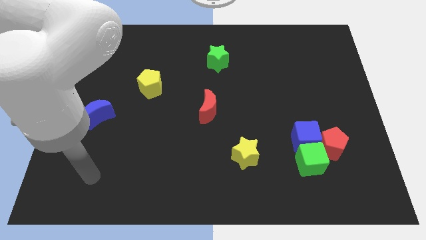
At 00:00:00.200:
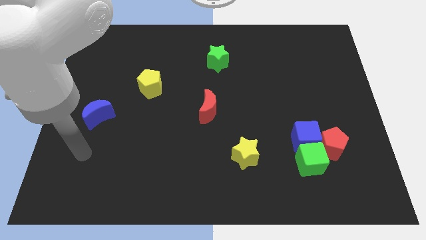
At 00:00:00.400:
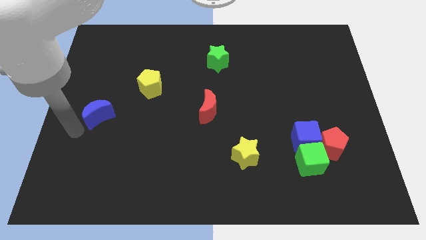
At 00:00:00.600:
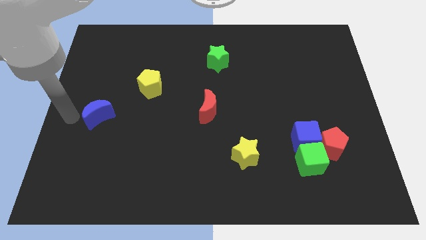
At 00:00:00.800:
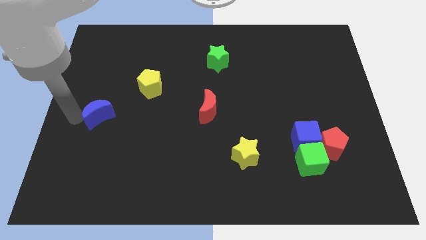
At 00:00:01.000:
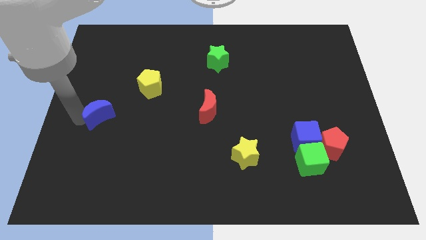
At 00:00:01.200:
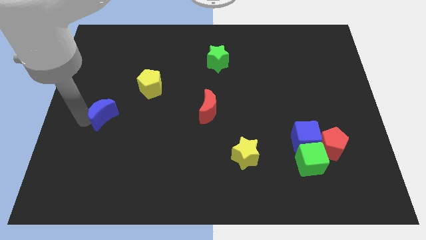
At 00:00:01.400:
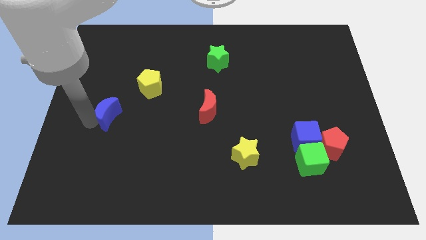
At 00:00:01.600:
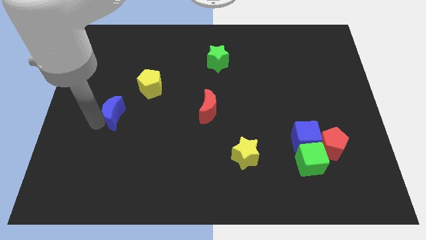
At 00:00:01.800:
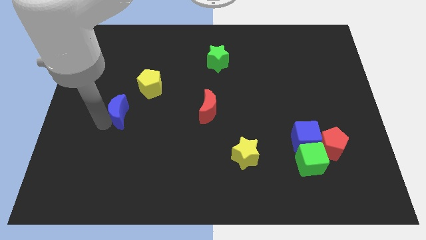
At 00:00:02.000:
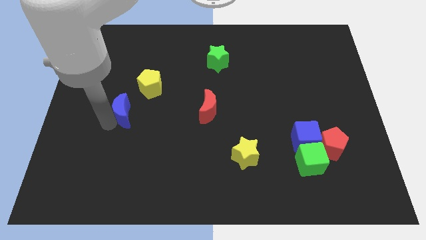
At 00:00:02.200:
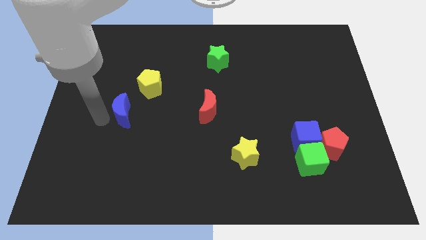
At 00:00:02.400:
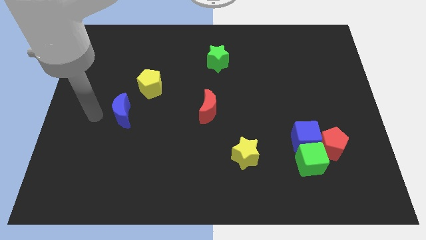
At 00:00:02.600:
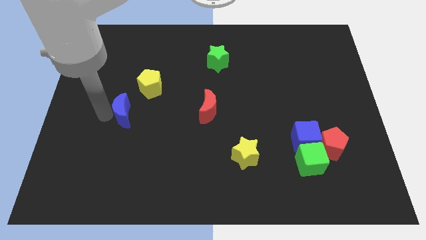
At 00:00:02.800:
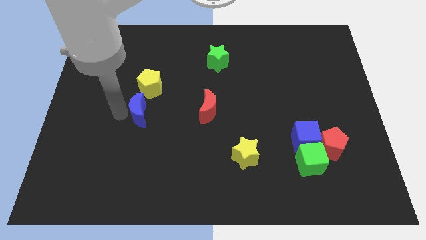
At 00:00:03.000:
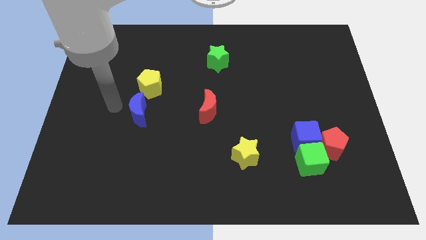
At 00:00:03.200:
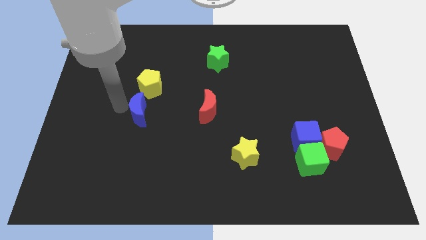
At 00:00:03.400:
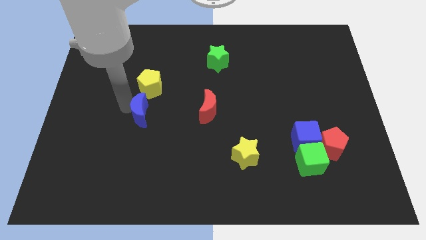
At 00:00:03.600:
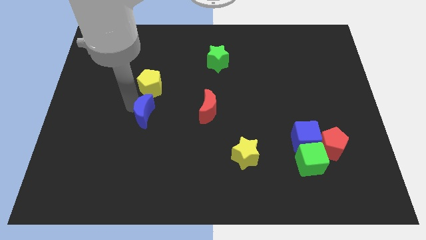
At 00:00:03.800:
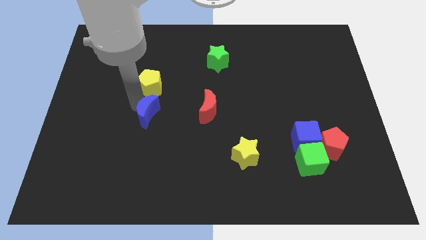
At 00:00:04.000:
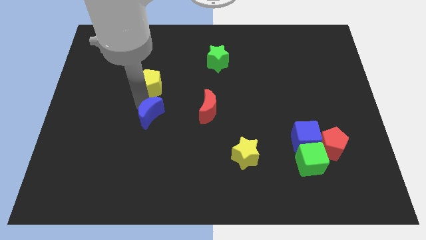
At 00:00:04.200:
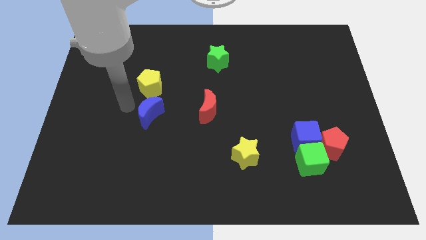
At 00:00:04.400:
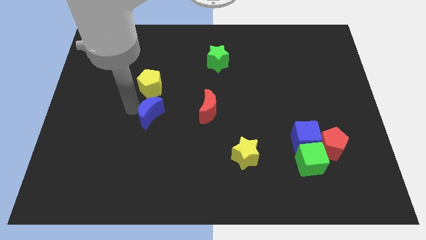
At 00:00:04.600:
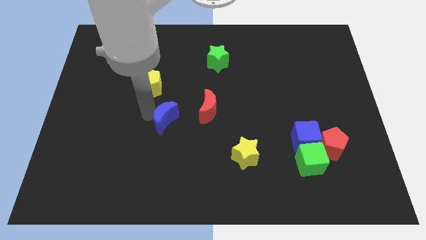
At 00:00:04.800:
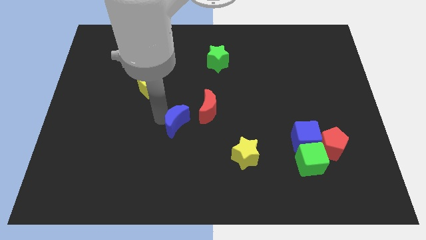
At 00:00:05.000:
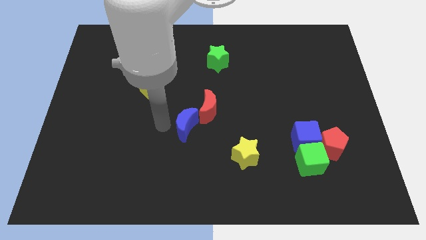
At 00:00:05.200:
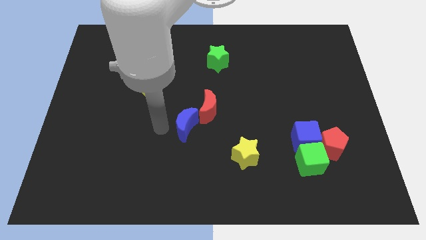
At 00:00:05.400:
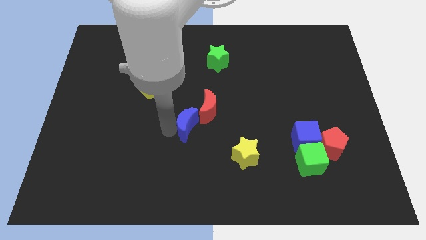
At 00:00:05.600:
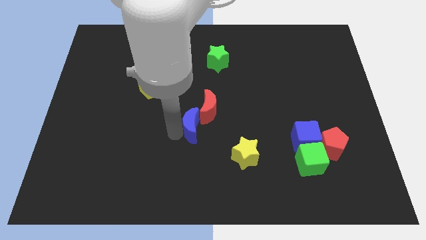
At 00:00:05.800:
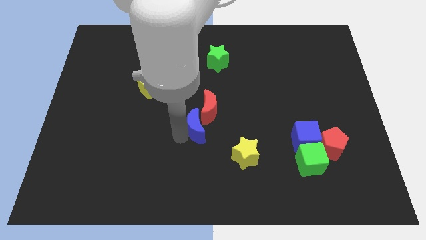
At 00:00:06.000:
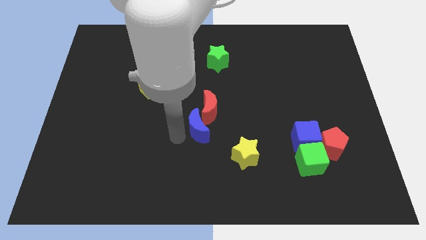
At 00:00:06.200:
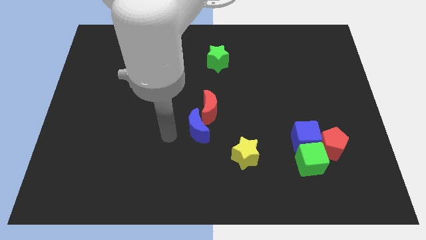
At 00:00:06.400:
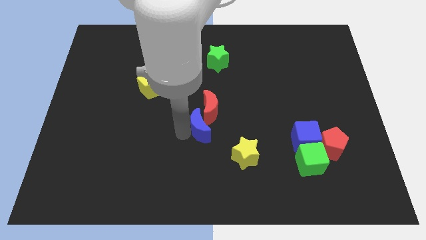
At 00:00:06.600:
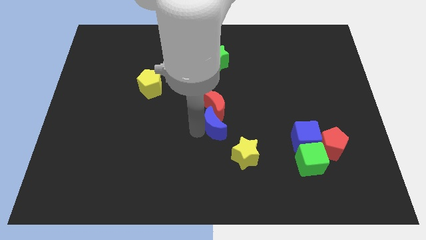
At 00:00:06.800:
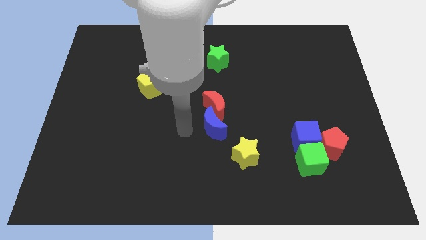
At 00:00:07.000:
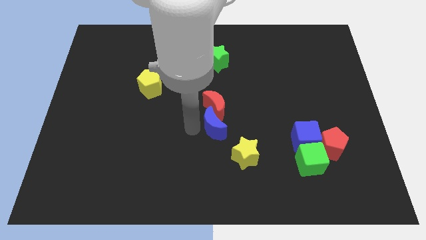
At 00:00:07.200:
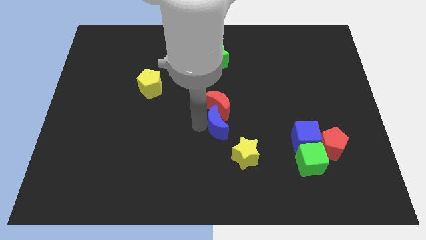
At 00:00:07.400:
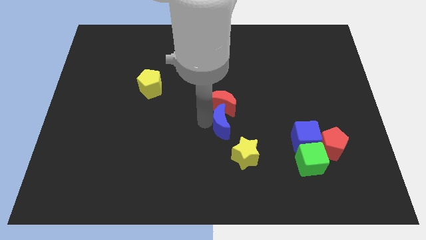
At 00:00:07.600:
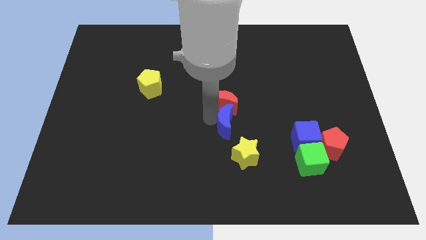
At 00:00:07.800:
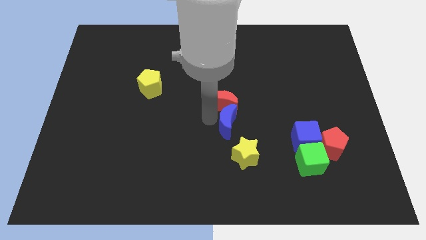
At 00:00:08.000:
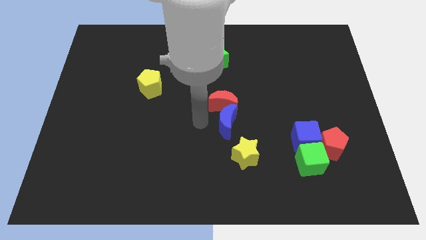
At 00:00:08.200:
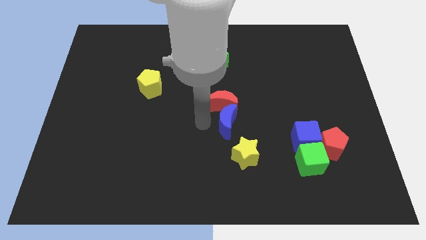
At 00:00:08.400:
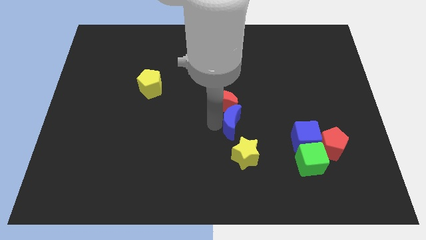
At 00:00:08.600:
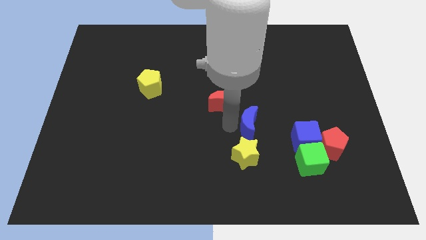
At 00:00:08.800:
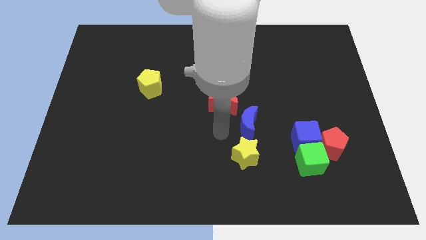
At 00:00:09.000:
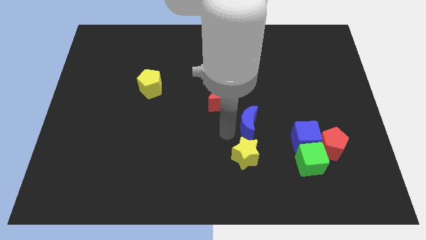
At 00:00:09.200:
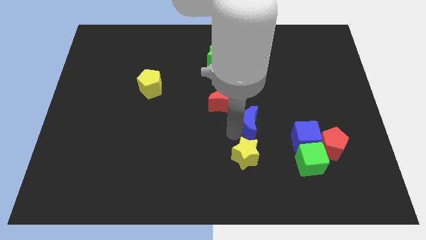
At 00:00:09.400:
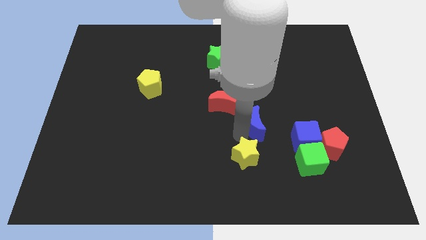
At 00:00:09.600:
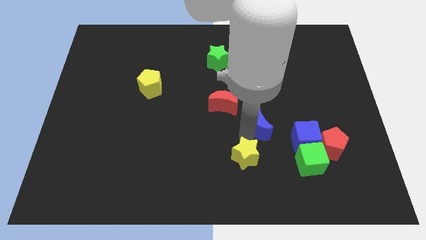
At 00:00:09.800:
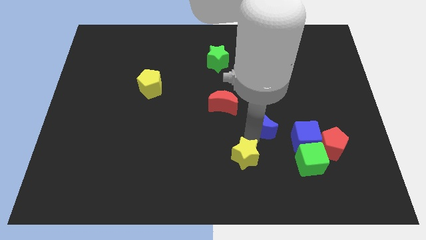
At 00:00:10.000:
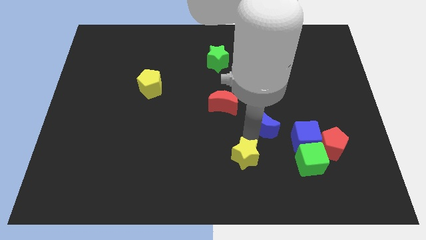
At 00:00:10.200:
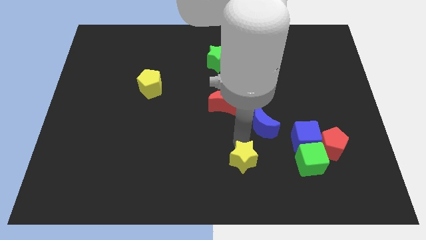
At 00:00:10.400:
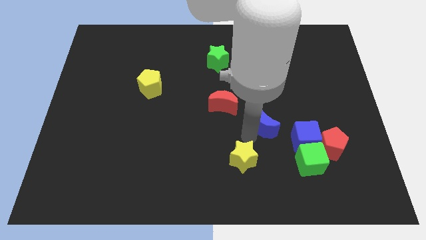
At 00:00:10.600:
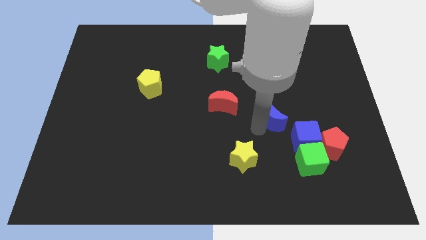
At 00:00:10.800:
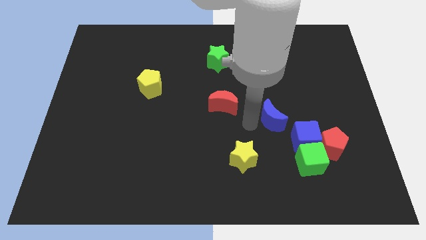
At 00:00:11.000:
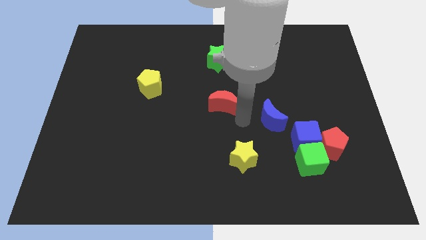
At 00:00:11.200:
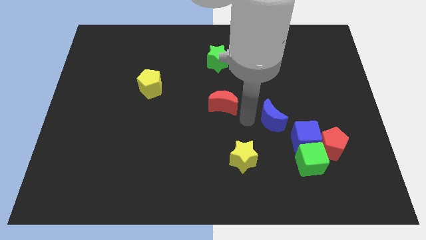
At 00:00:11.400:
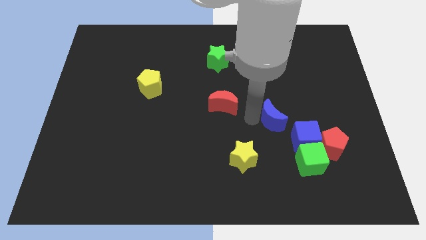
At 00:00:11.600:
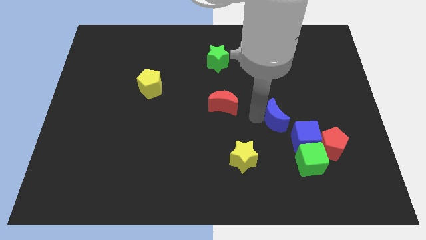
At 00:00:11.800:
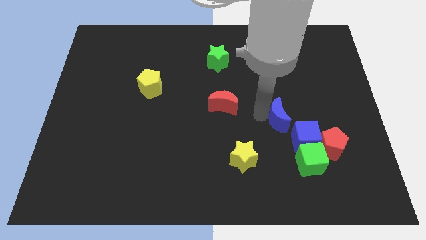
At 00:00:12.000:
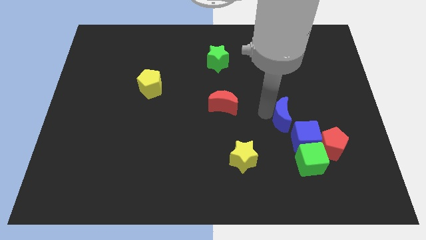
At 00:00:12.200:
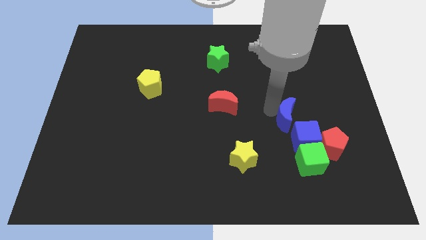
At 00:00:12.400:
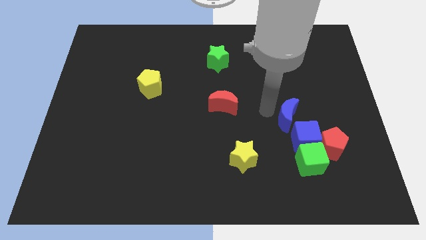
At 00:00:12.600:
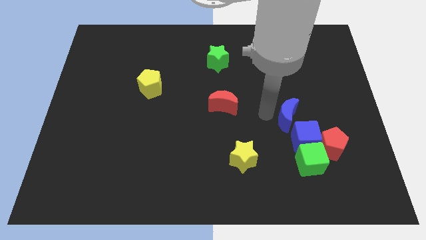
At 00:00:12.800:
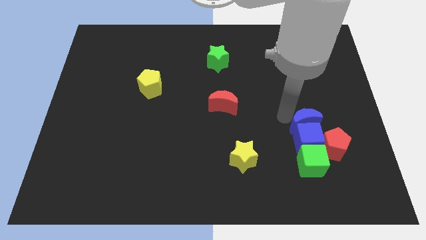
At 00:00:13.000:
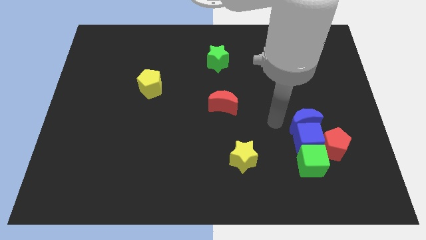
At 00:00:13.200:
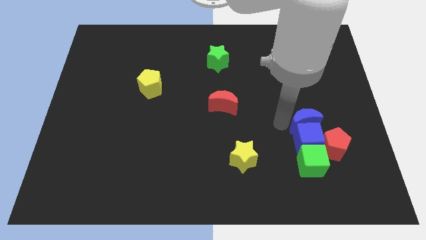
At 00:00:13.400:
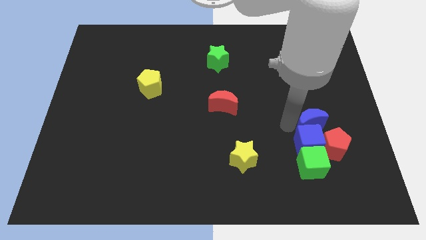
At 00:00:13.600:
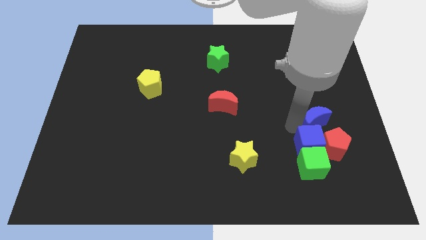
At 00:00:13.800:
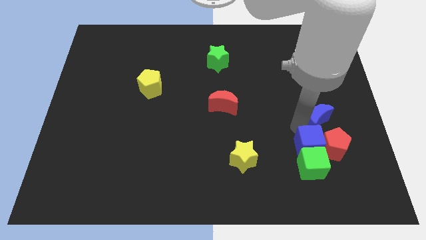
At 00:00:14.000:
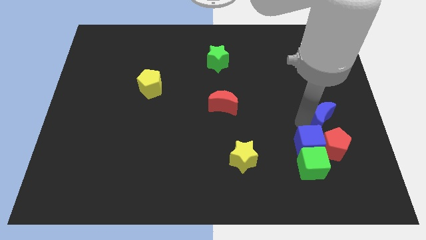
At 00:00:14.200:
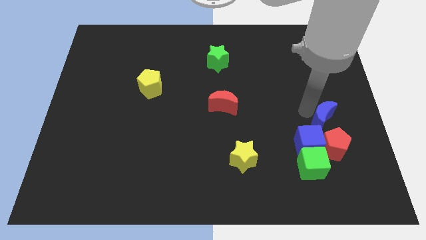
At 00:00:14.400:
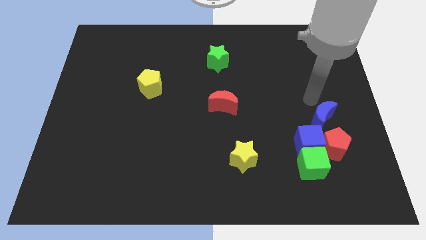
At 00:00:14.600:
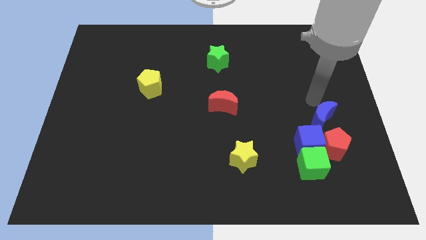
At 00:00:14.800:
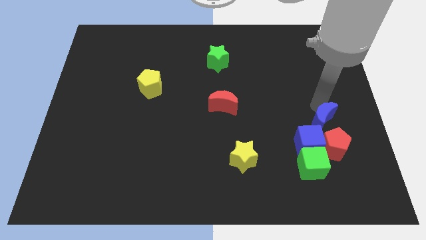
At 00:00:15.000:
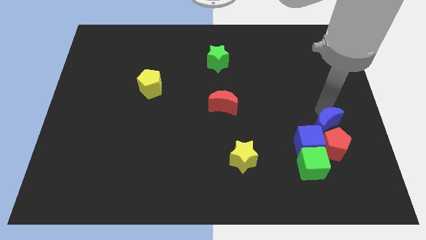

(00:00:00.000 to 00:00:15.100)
push the blue moon next to the red pentagon
